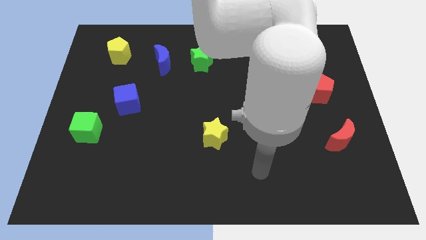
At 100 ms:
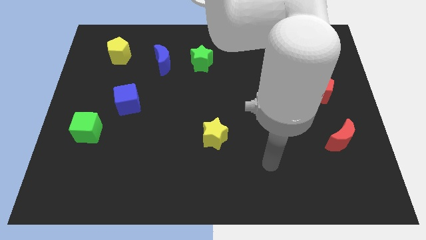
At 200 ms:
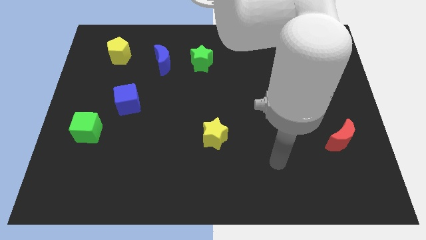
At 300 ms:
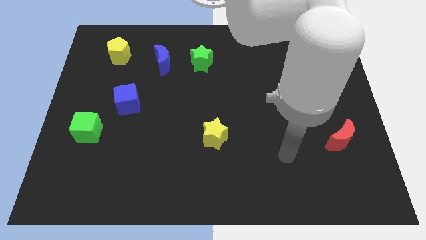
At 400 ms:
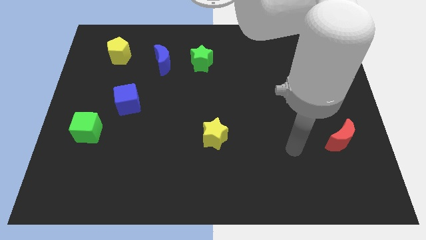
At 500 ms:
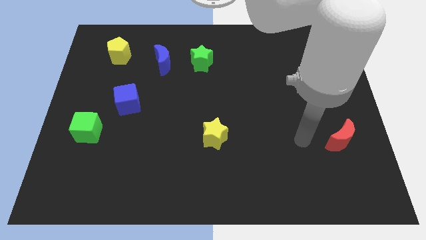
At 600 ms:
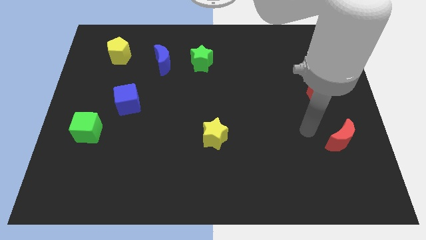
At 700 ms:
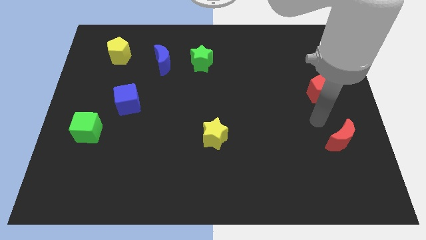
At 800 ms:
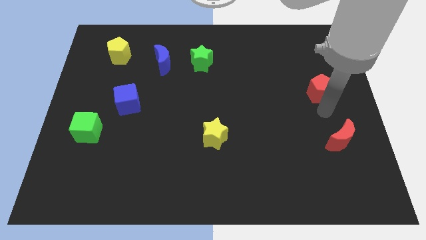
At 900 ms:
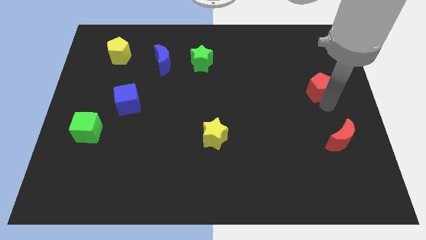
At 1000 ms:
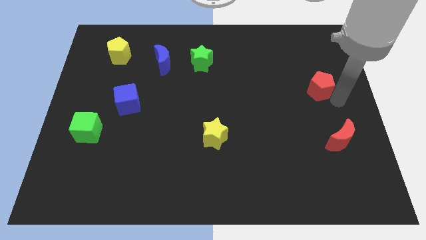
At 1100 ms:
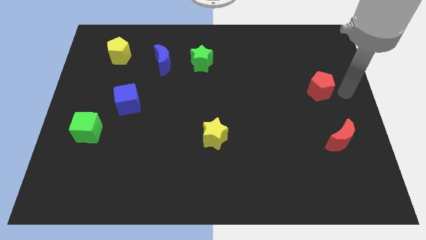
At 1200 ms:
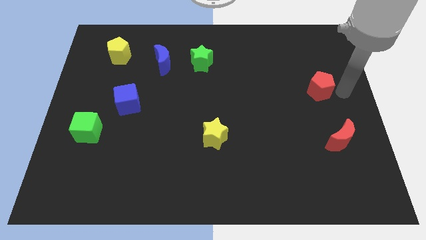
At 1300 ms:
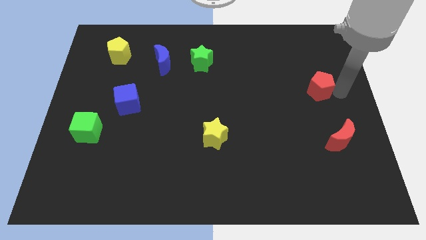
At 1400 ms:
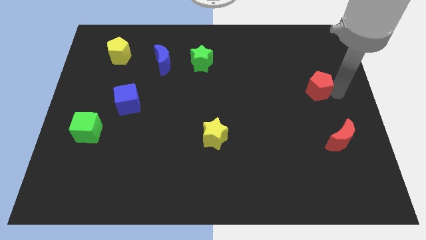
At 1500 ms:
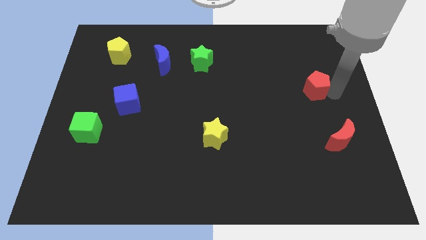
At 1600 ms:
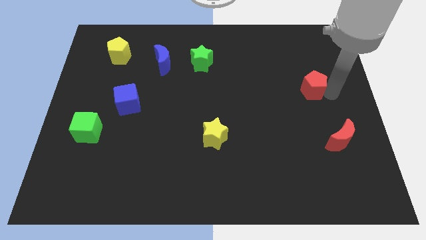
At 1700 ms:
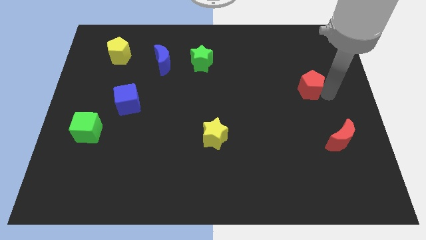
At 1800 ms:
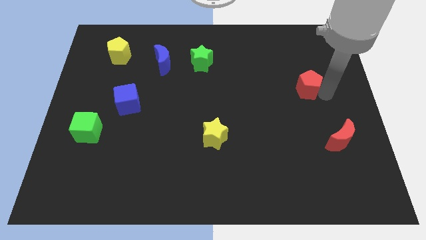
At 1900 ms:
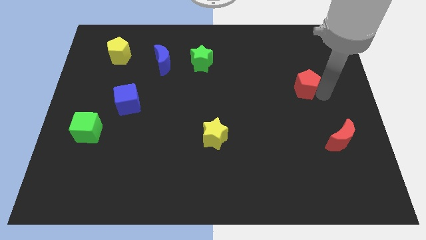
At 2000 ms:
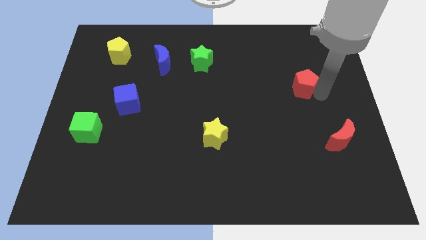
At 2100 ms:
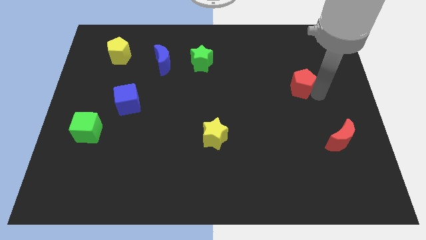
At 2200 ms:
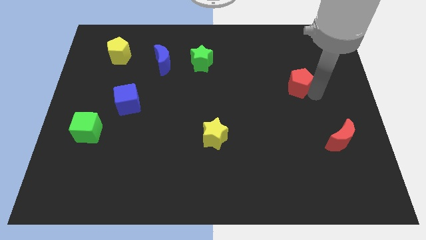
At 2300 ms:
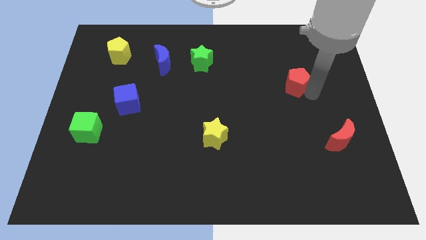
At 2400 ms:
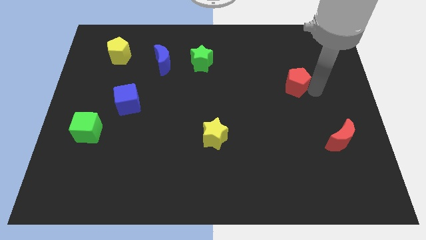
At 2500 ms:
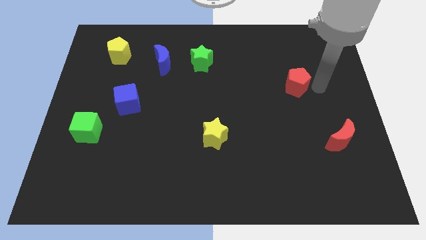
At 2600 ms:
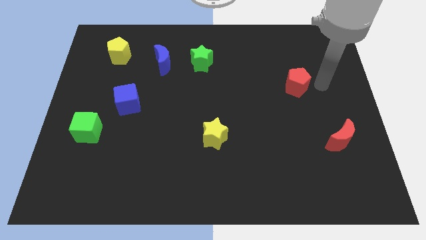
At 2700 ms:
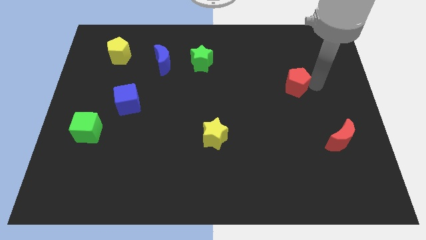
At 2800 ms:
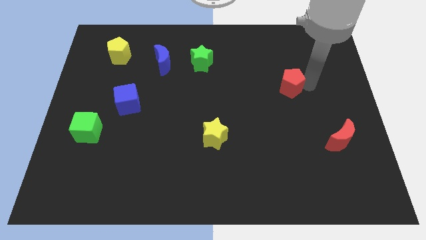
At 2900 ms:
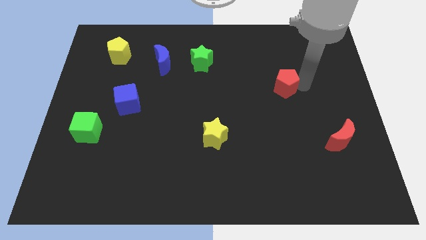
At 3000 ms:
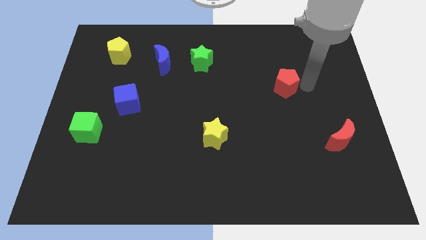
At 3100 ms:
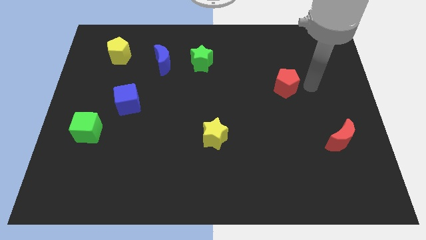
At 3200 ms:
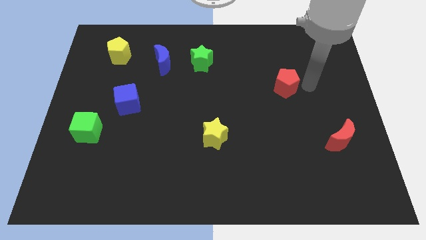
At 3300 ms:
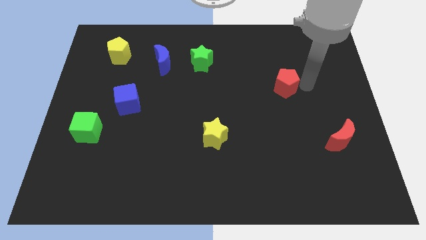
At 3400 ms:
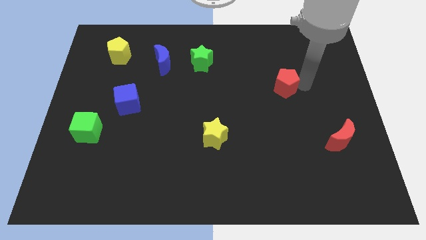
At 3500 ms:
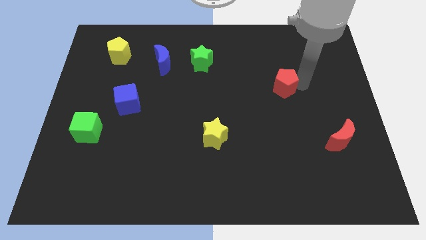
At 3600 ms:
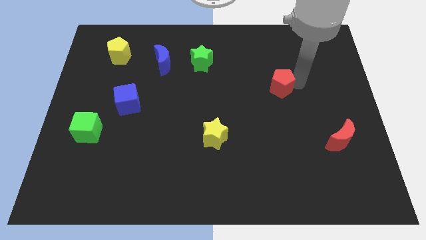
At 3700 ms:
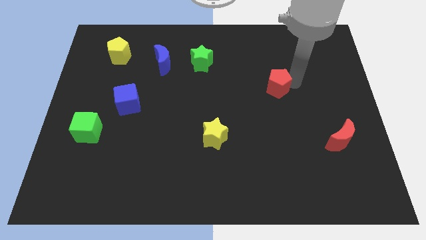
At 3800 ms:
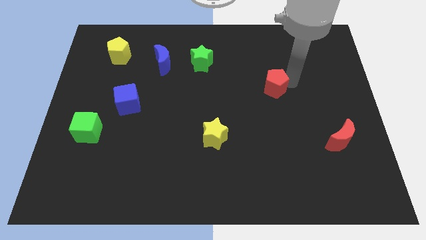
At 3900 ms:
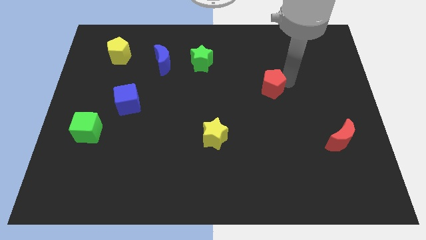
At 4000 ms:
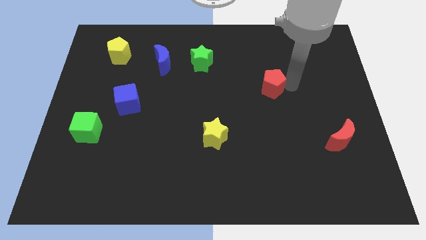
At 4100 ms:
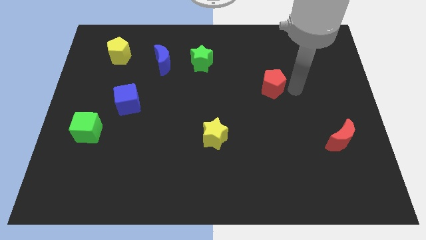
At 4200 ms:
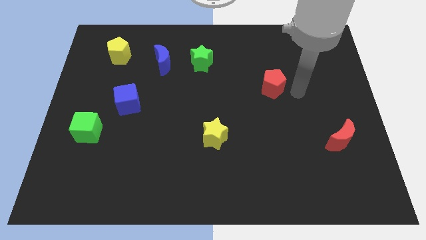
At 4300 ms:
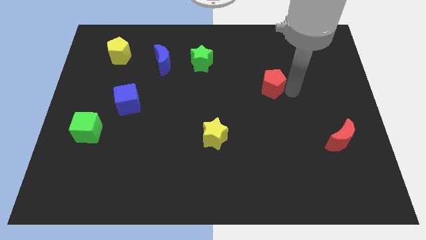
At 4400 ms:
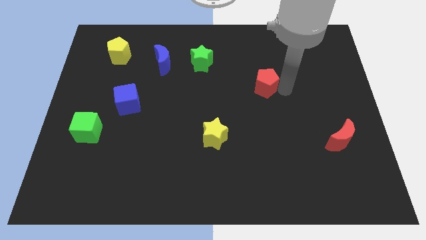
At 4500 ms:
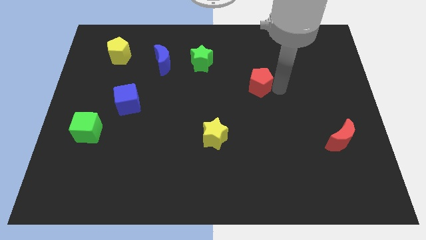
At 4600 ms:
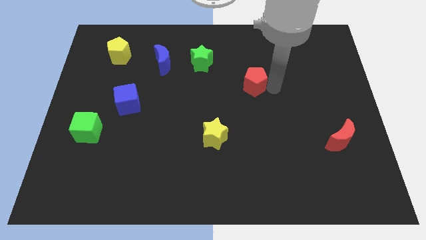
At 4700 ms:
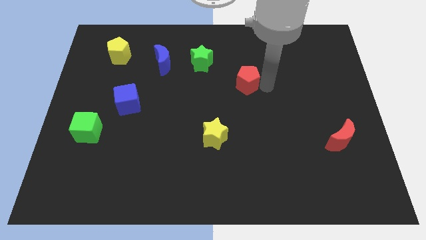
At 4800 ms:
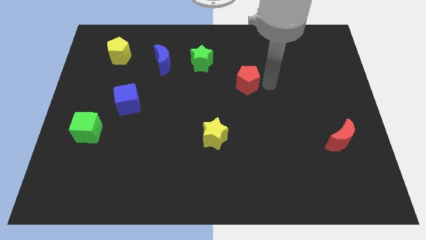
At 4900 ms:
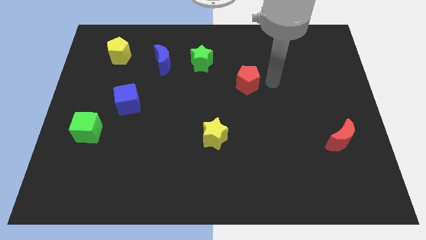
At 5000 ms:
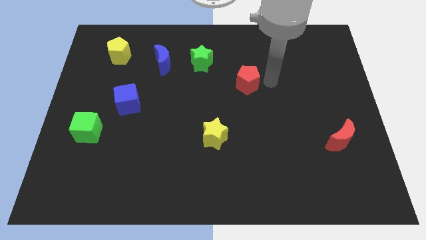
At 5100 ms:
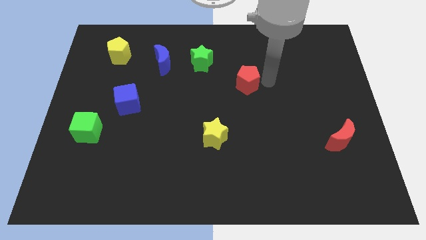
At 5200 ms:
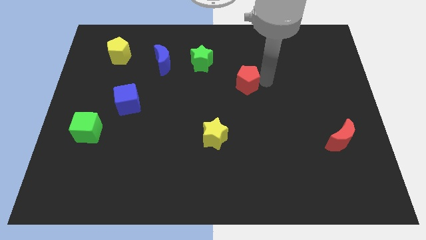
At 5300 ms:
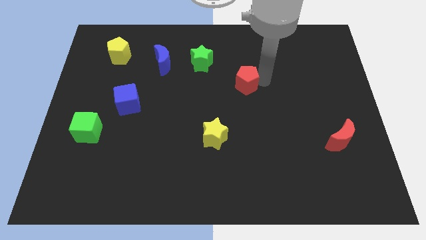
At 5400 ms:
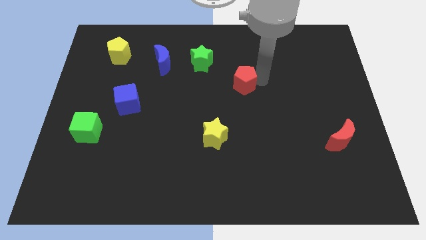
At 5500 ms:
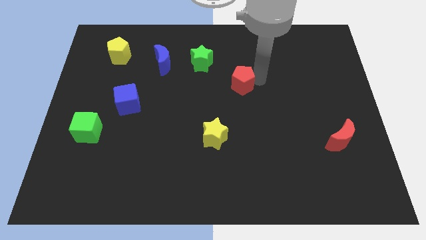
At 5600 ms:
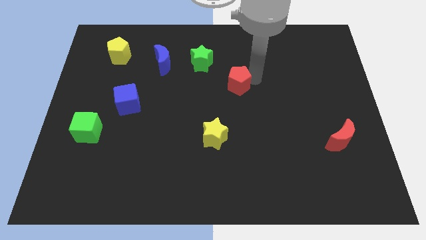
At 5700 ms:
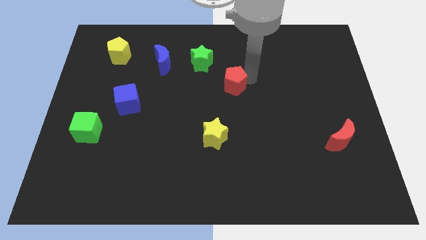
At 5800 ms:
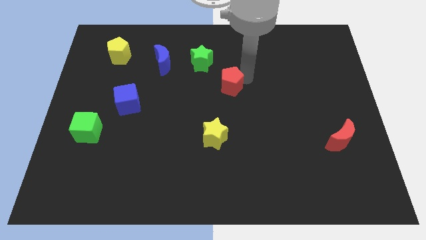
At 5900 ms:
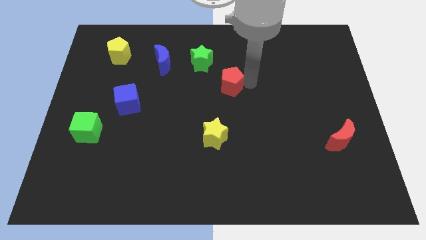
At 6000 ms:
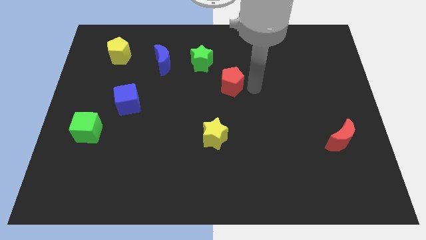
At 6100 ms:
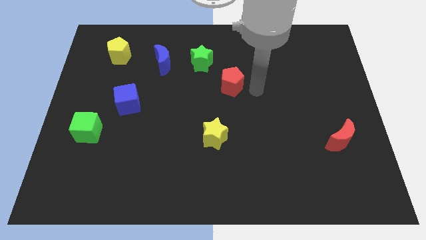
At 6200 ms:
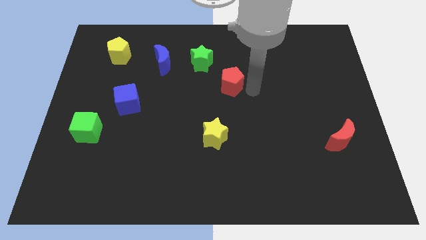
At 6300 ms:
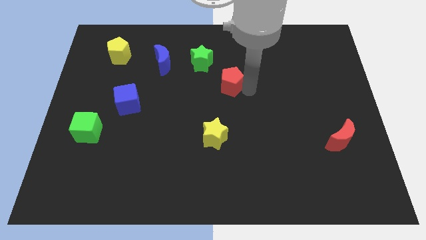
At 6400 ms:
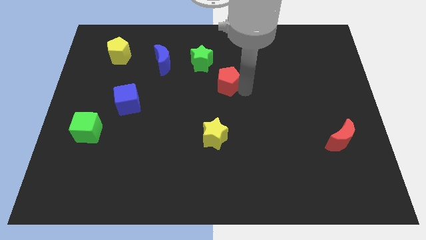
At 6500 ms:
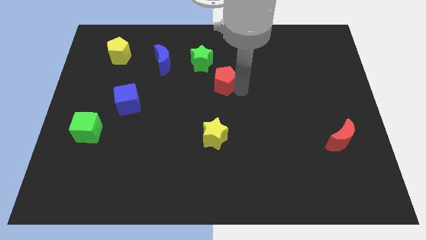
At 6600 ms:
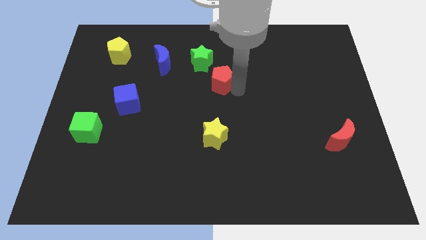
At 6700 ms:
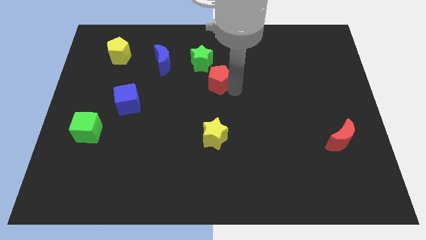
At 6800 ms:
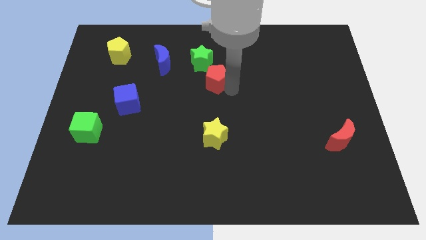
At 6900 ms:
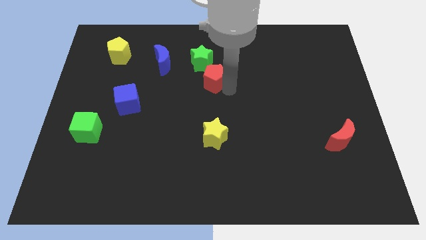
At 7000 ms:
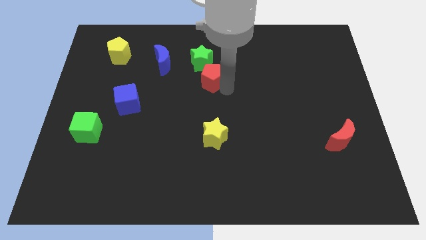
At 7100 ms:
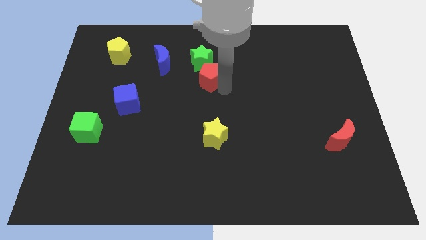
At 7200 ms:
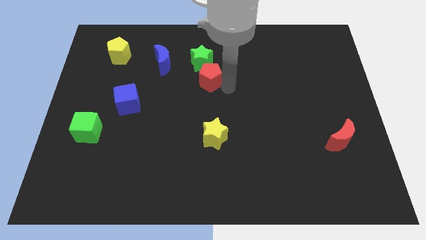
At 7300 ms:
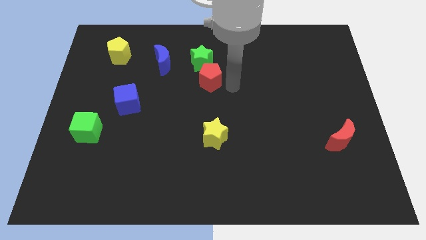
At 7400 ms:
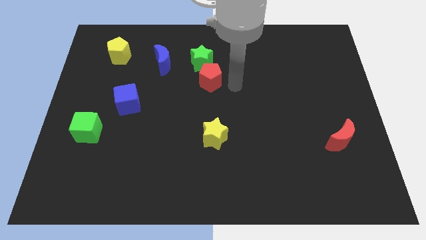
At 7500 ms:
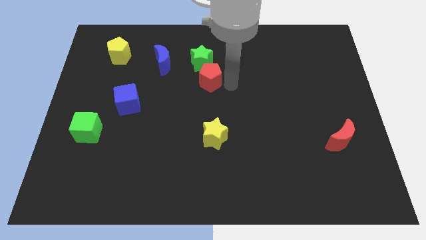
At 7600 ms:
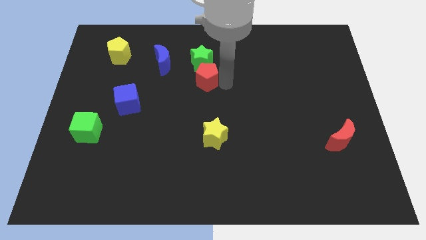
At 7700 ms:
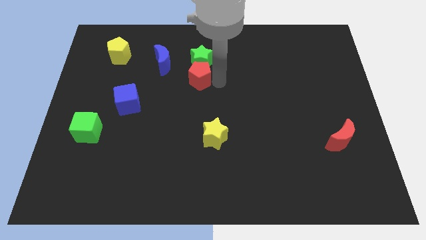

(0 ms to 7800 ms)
put the red pentagon diagonally down and to the left of the green star

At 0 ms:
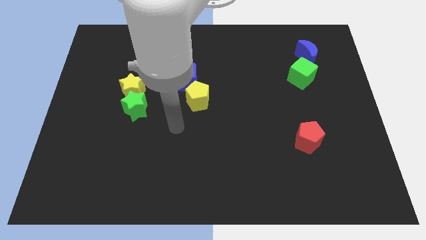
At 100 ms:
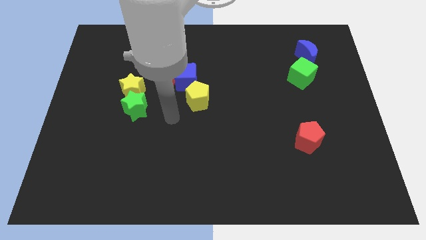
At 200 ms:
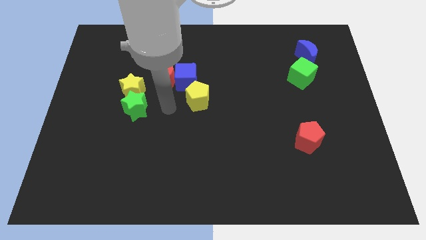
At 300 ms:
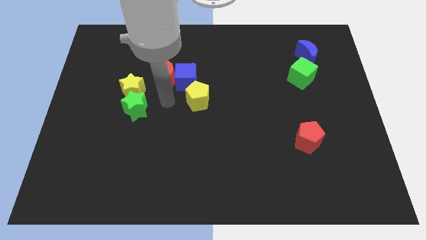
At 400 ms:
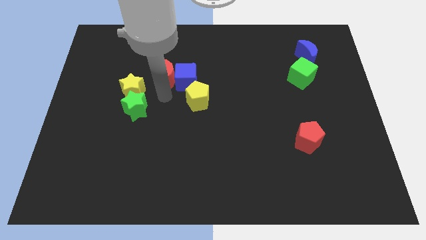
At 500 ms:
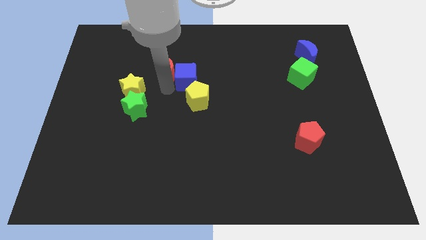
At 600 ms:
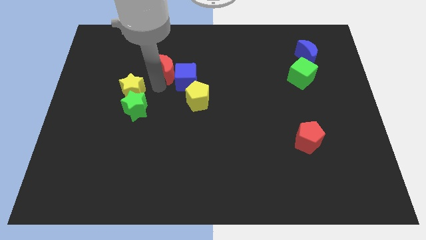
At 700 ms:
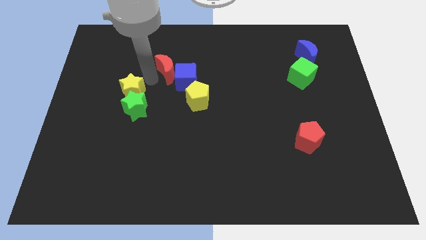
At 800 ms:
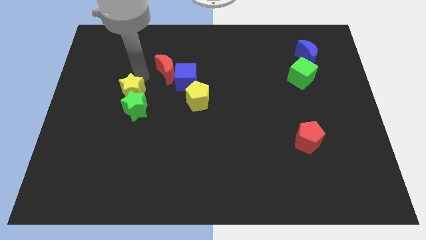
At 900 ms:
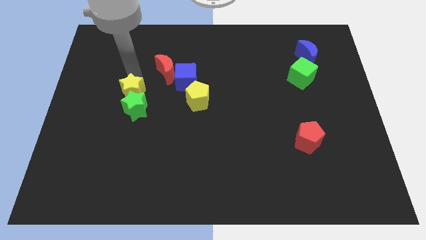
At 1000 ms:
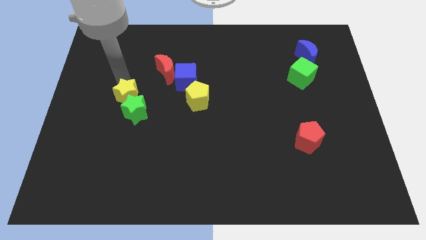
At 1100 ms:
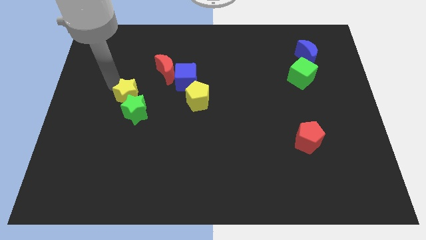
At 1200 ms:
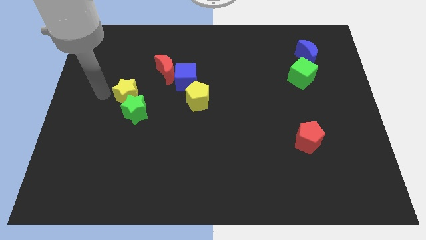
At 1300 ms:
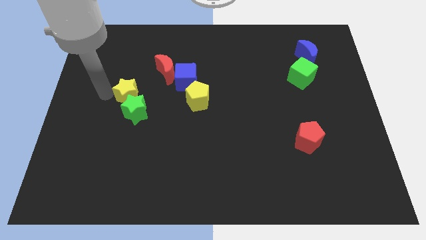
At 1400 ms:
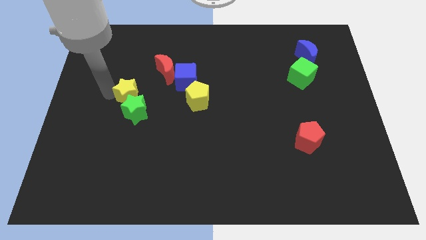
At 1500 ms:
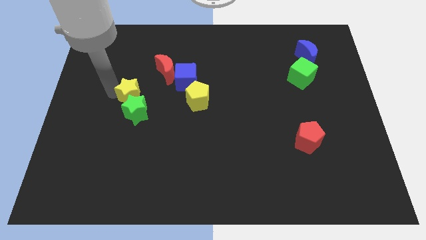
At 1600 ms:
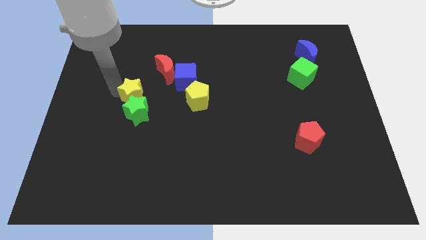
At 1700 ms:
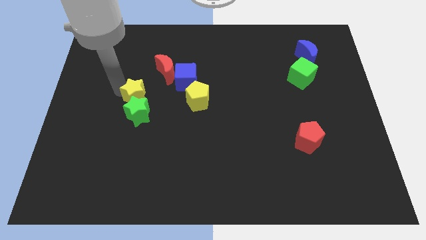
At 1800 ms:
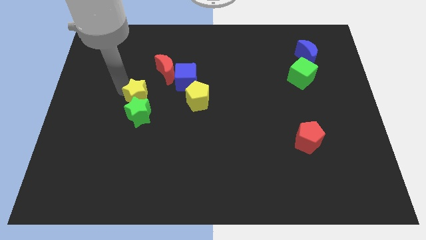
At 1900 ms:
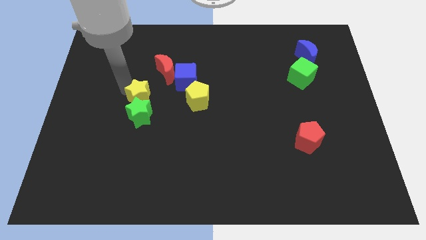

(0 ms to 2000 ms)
slide the yellow star to the top right of the green star
